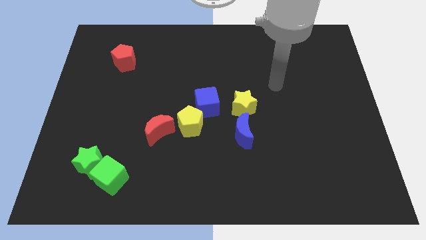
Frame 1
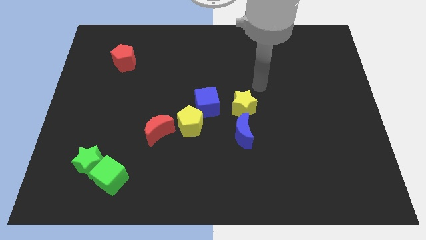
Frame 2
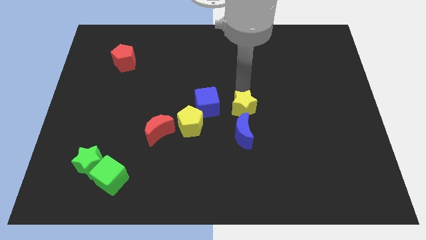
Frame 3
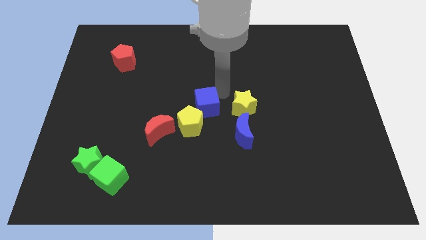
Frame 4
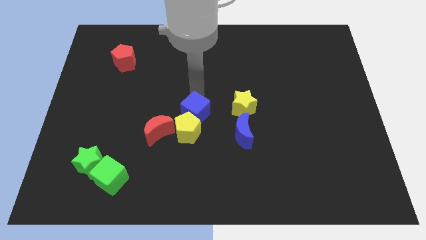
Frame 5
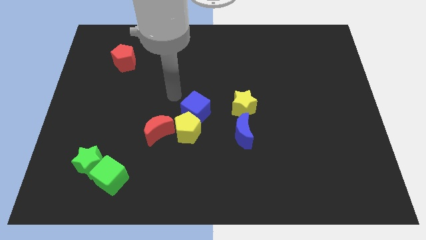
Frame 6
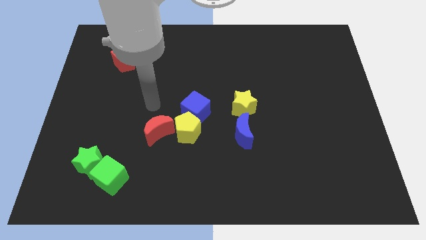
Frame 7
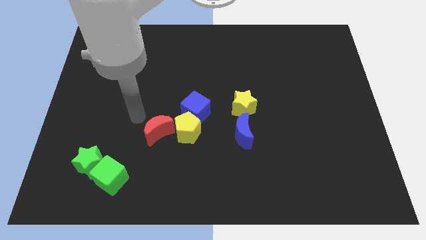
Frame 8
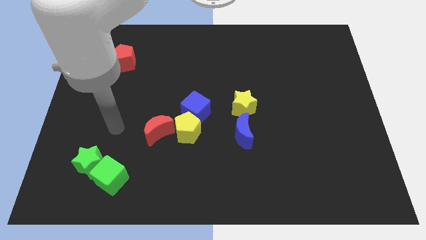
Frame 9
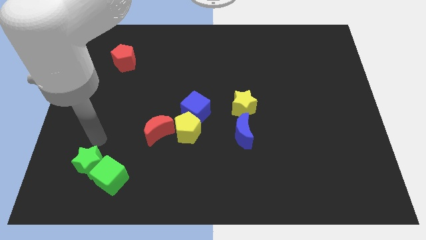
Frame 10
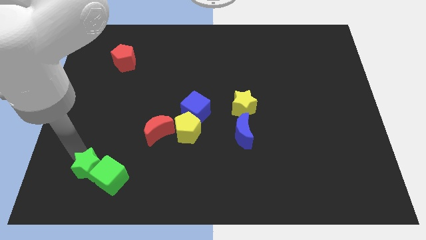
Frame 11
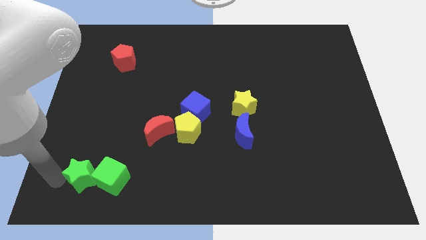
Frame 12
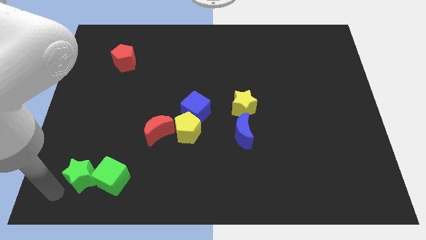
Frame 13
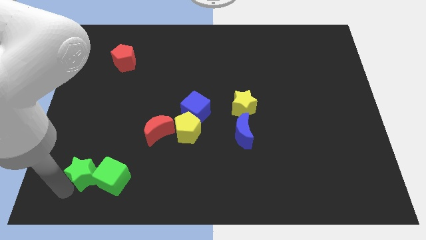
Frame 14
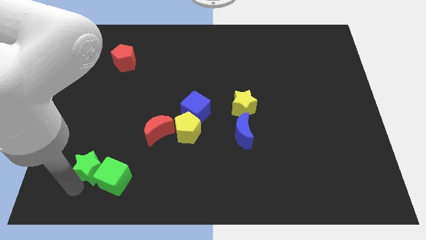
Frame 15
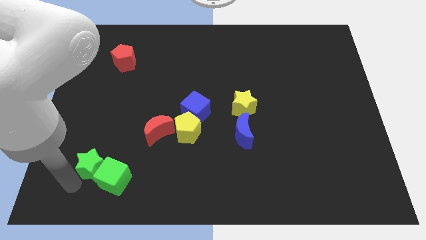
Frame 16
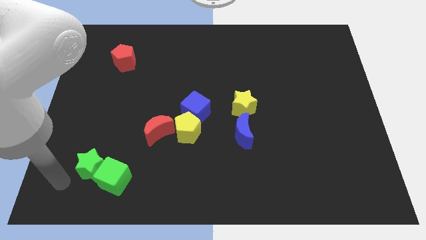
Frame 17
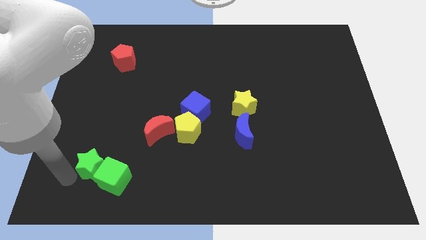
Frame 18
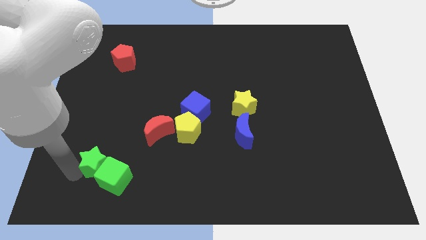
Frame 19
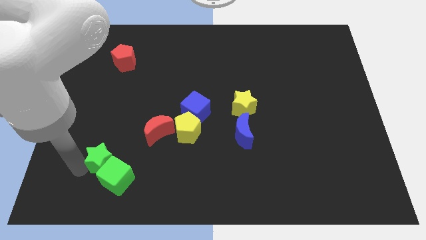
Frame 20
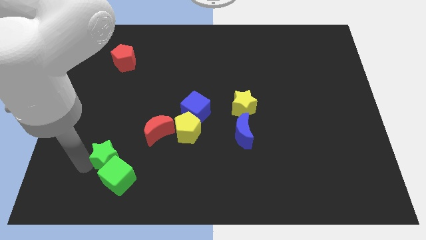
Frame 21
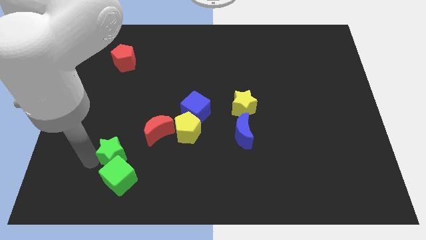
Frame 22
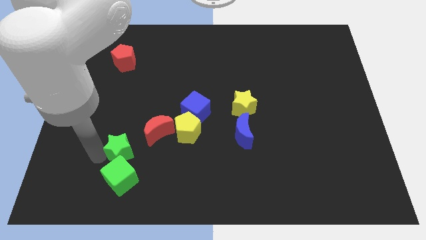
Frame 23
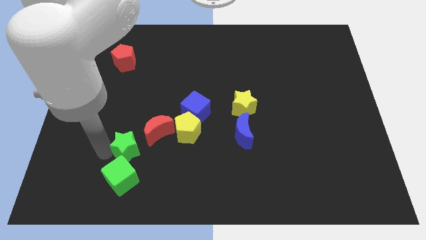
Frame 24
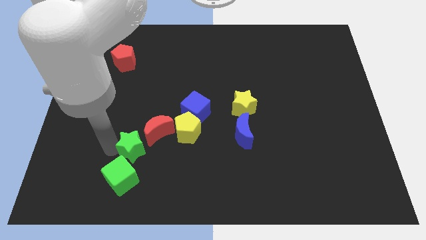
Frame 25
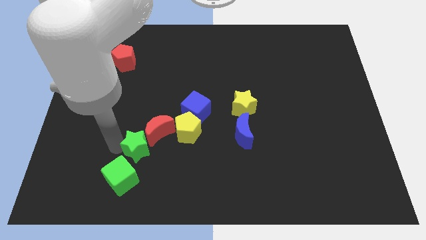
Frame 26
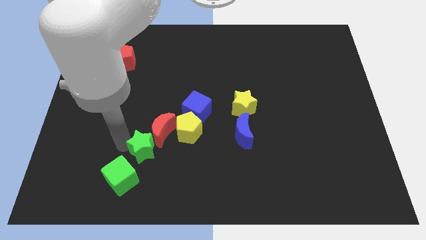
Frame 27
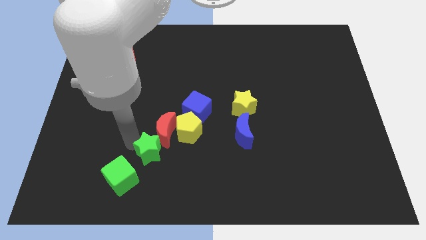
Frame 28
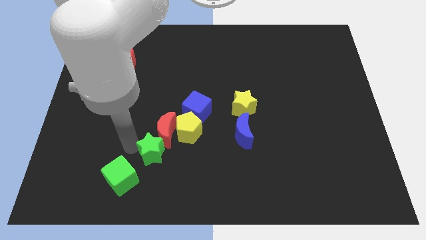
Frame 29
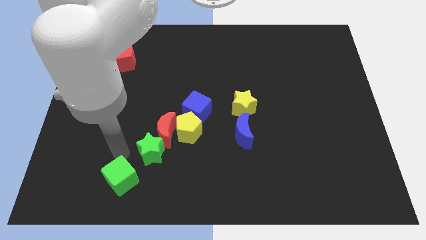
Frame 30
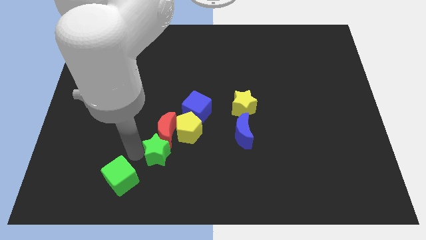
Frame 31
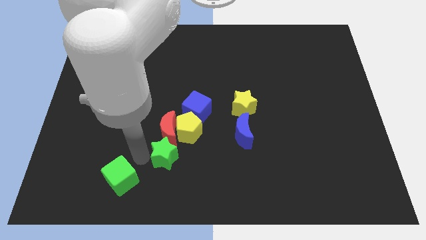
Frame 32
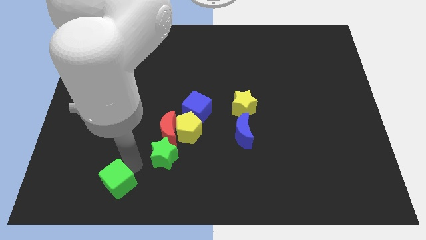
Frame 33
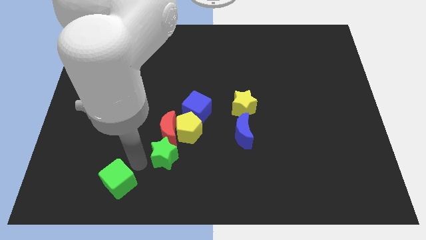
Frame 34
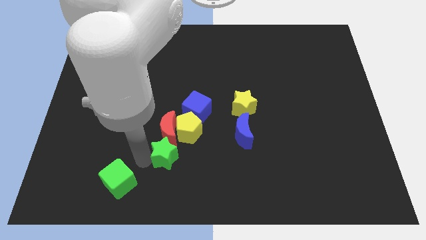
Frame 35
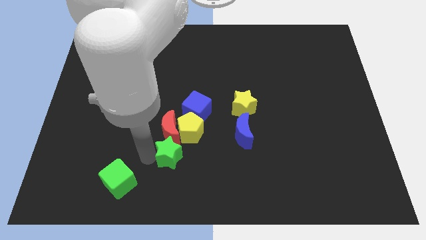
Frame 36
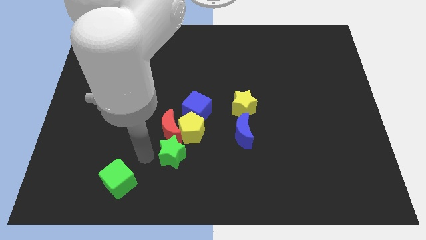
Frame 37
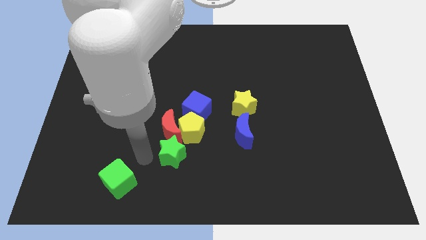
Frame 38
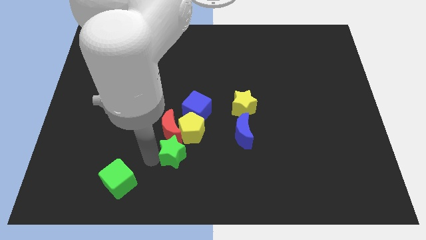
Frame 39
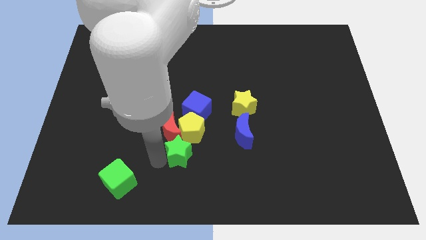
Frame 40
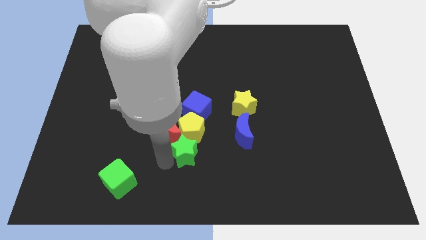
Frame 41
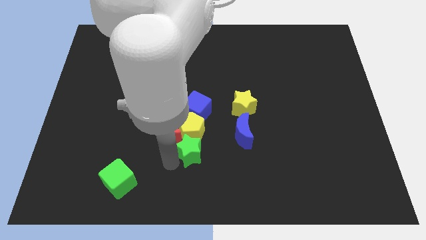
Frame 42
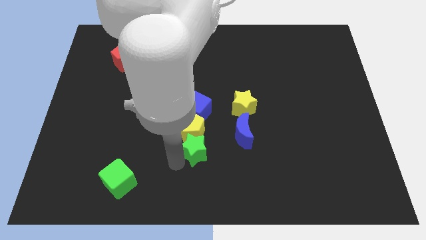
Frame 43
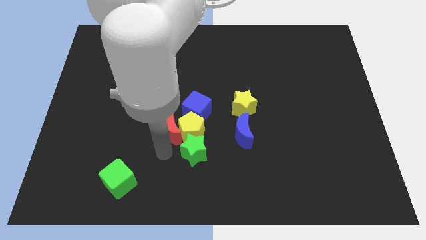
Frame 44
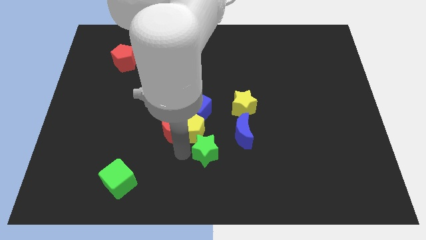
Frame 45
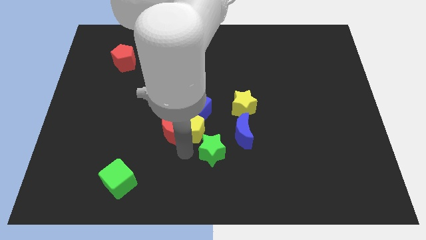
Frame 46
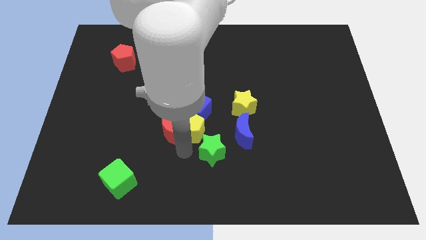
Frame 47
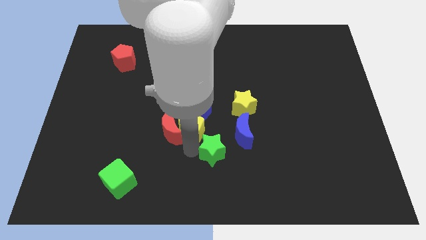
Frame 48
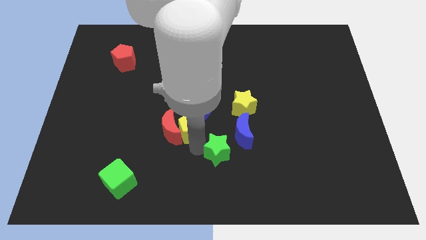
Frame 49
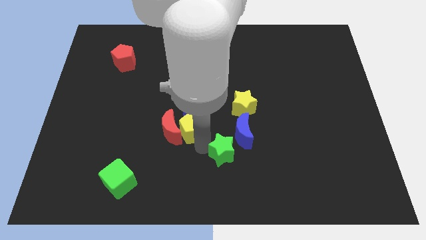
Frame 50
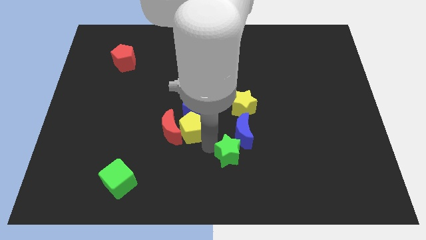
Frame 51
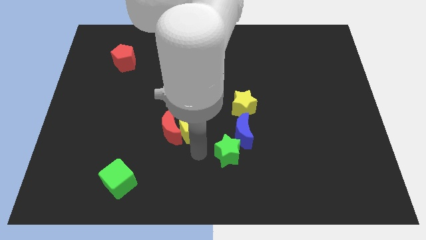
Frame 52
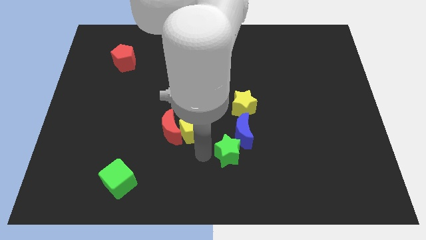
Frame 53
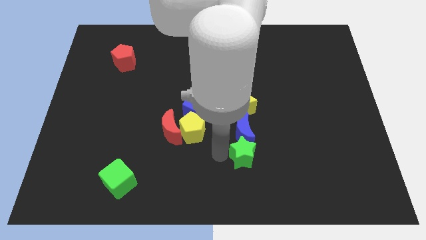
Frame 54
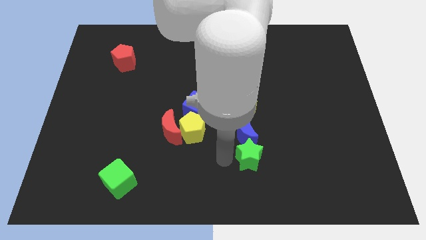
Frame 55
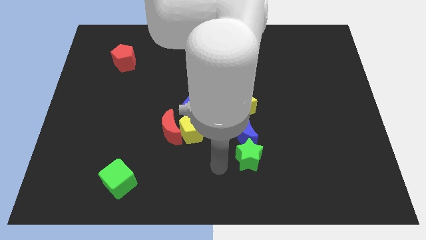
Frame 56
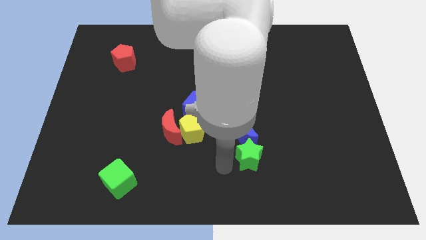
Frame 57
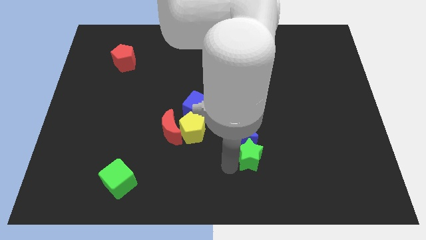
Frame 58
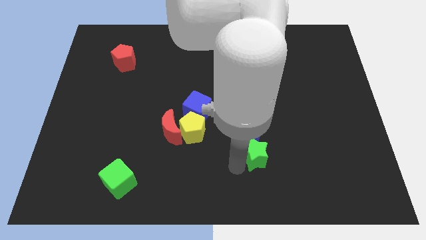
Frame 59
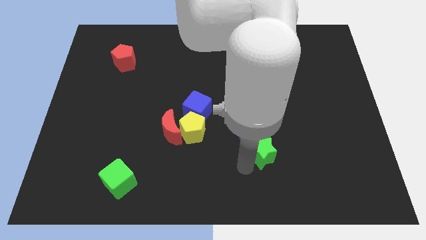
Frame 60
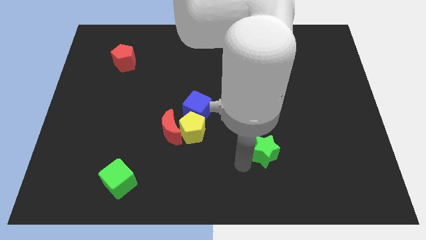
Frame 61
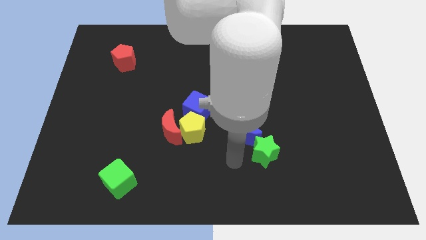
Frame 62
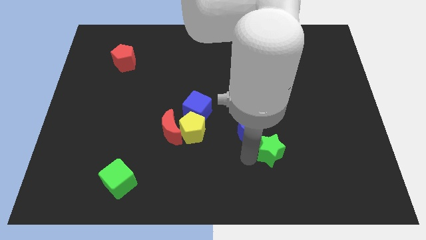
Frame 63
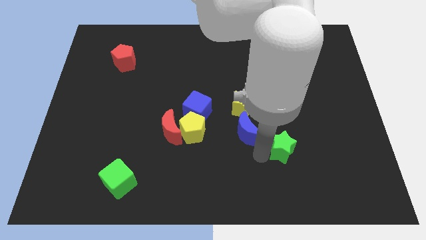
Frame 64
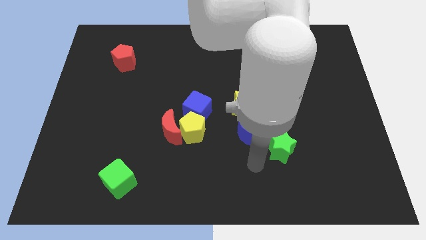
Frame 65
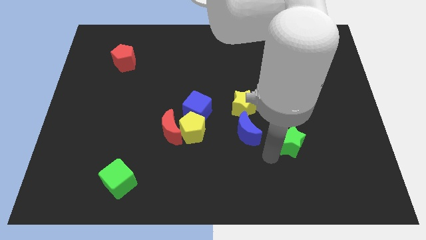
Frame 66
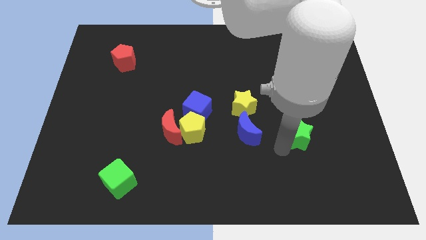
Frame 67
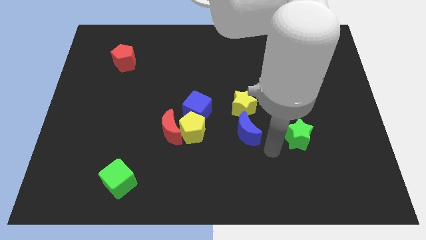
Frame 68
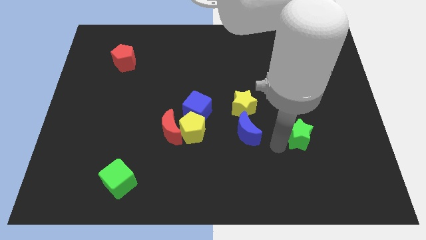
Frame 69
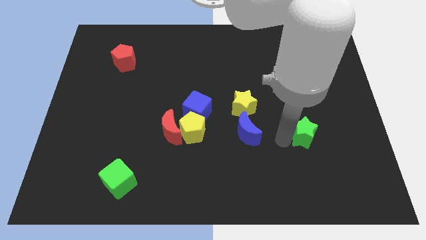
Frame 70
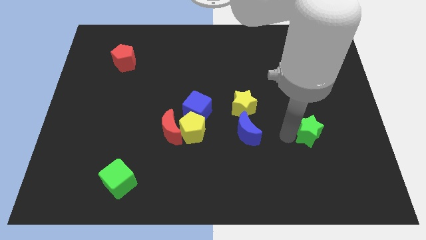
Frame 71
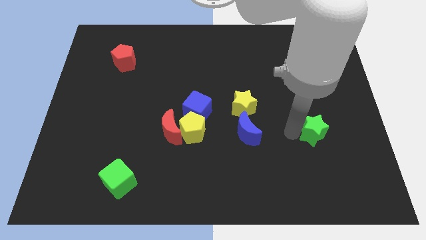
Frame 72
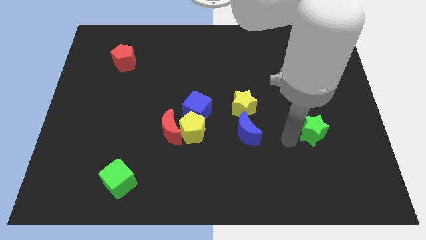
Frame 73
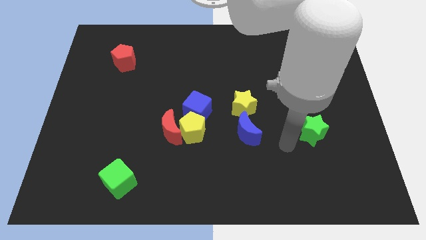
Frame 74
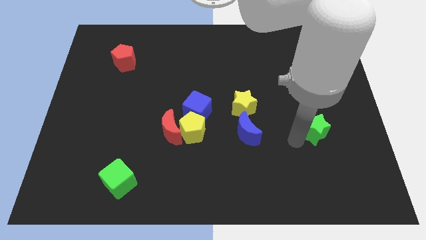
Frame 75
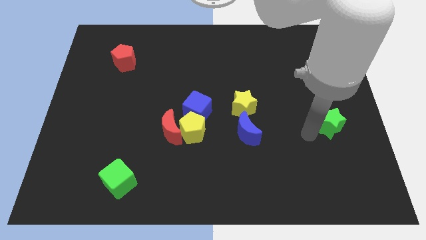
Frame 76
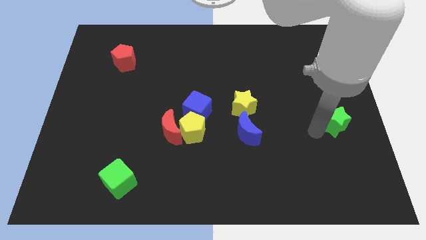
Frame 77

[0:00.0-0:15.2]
push the green star to the center right

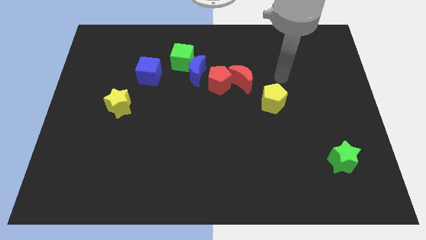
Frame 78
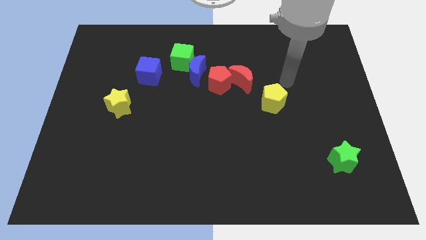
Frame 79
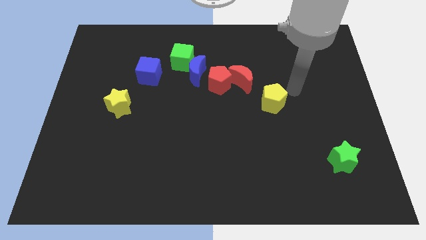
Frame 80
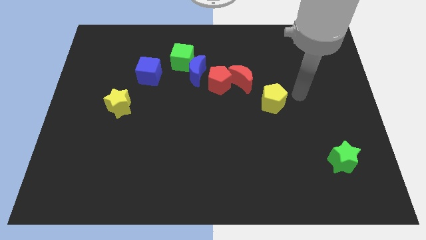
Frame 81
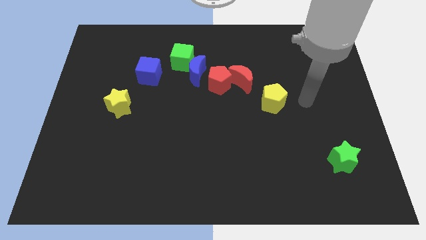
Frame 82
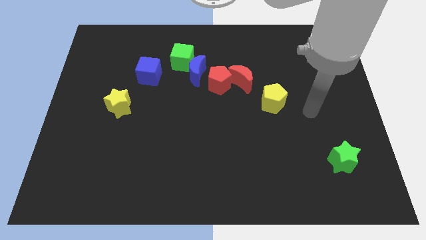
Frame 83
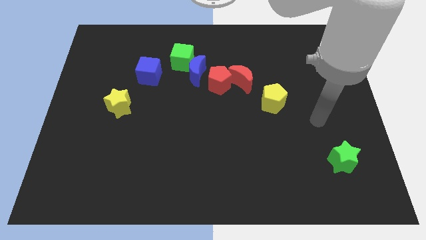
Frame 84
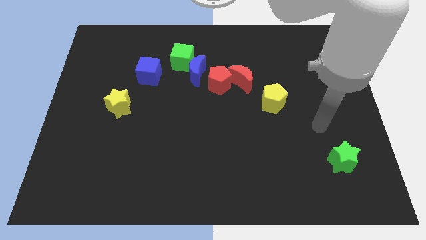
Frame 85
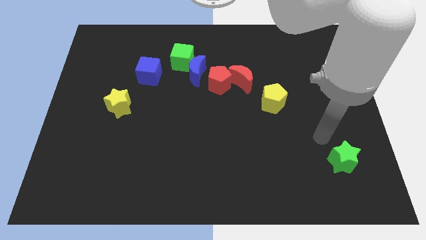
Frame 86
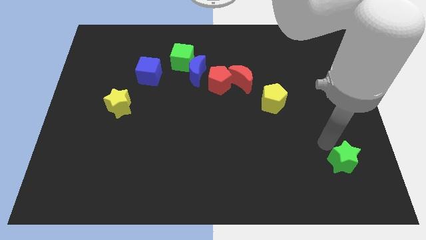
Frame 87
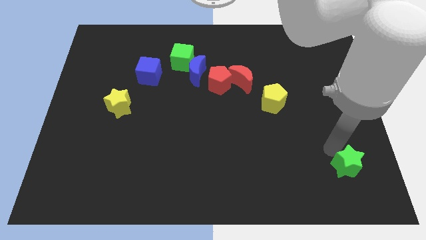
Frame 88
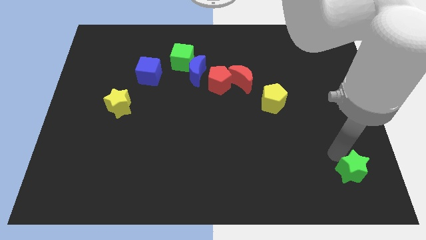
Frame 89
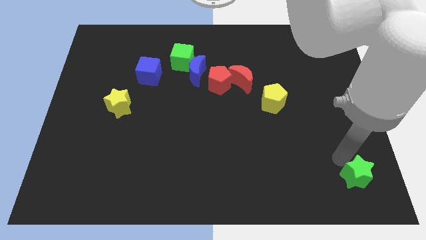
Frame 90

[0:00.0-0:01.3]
slide the green star to the lower right corner
